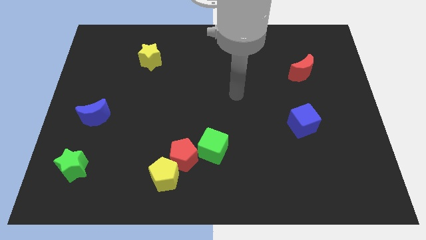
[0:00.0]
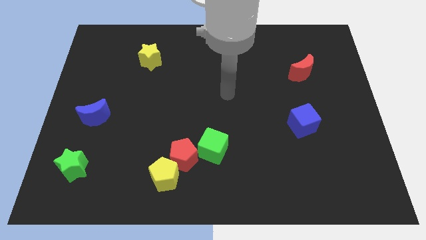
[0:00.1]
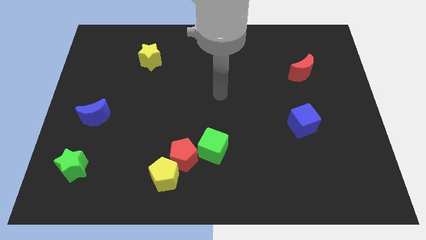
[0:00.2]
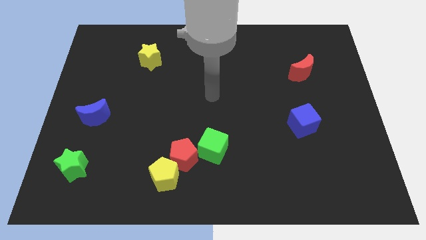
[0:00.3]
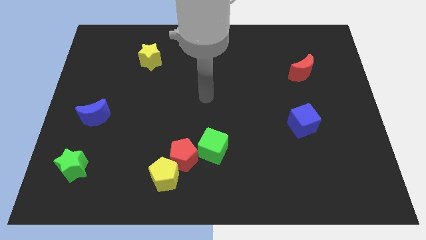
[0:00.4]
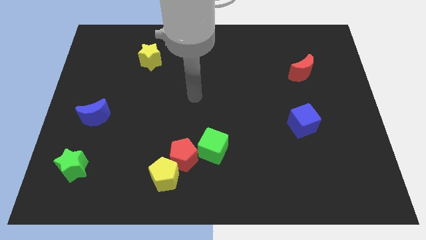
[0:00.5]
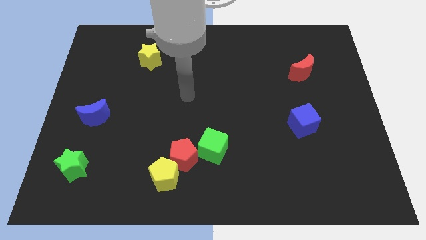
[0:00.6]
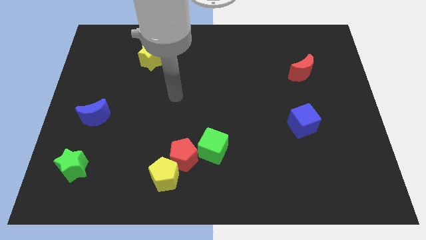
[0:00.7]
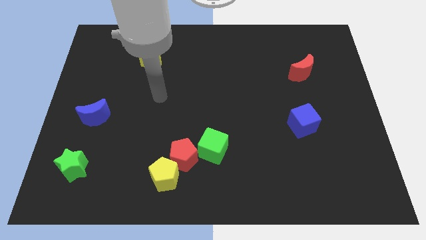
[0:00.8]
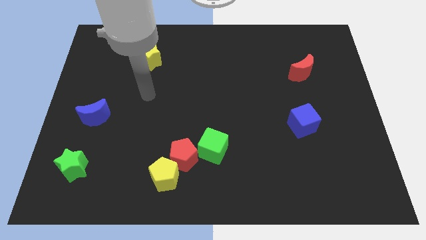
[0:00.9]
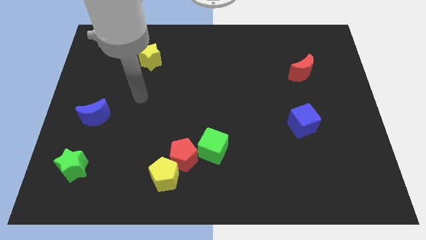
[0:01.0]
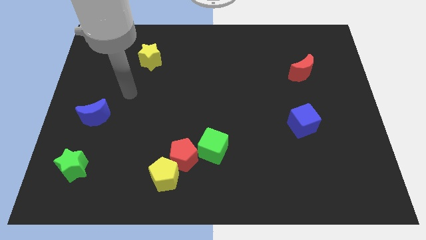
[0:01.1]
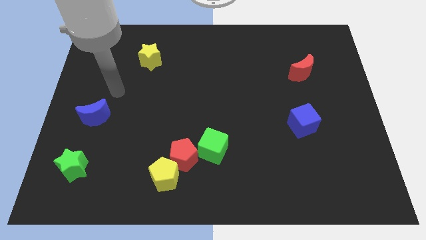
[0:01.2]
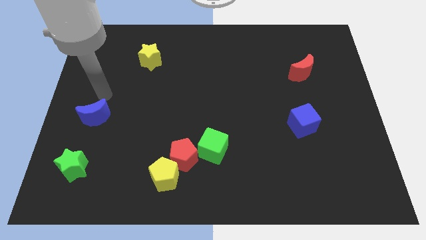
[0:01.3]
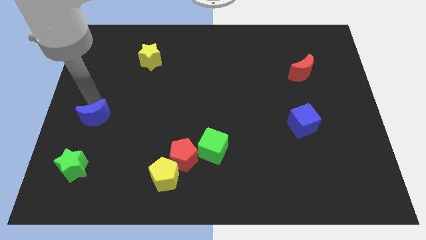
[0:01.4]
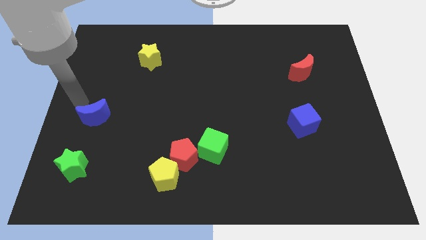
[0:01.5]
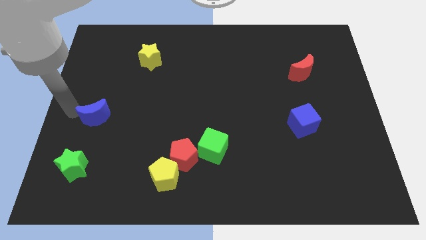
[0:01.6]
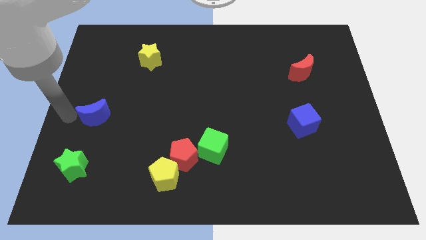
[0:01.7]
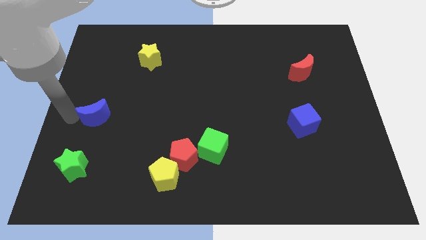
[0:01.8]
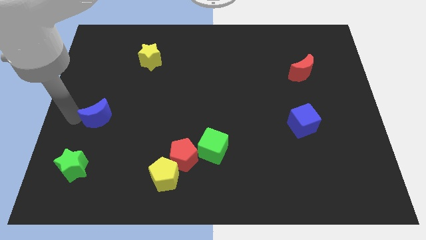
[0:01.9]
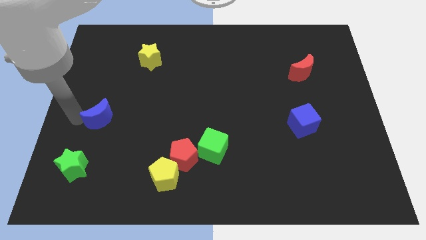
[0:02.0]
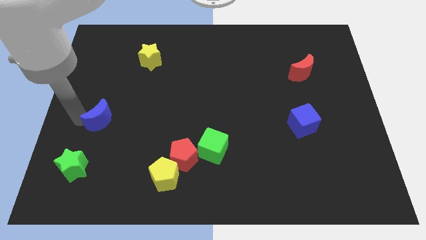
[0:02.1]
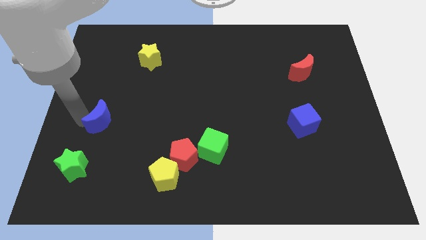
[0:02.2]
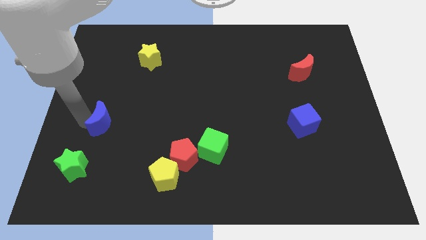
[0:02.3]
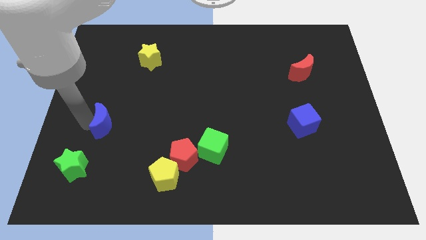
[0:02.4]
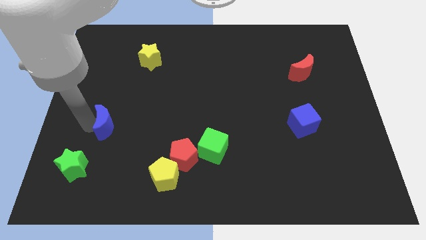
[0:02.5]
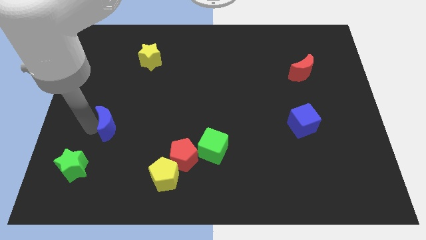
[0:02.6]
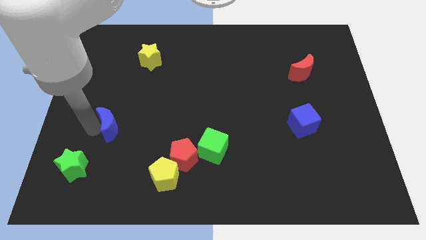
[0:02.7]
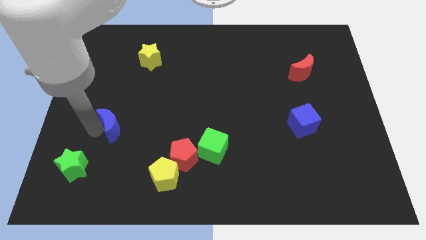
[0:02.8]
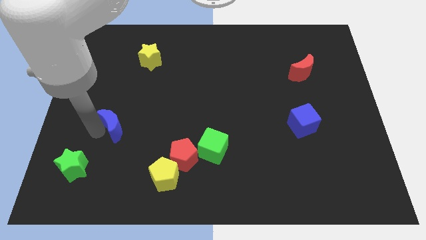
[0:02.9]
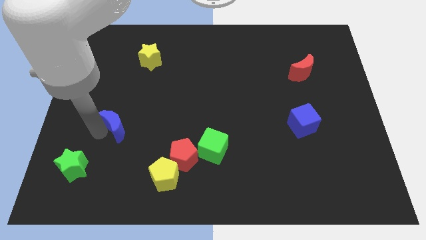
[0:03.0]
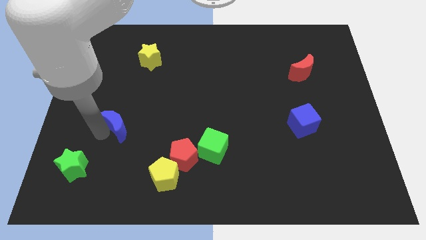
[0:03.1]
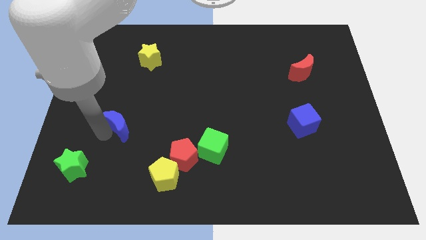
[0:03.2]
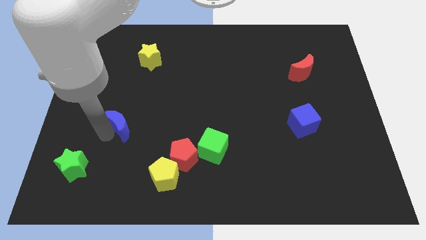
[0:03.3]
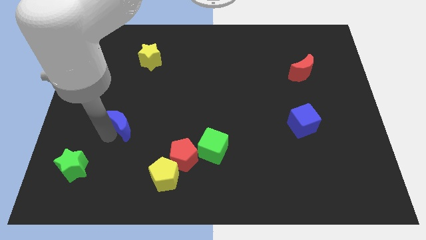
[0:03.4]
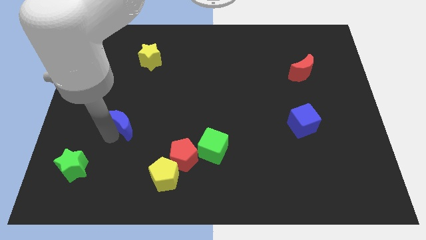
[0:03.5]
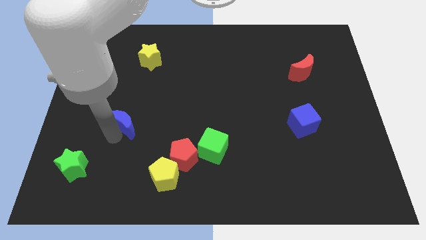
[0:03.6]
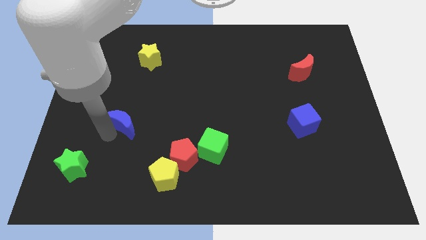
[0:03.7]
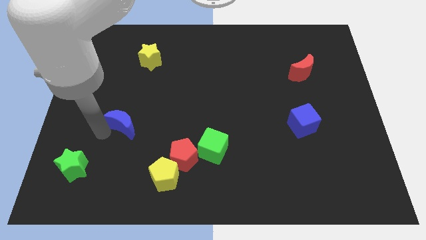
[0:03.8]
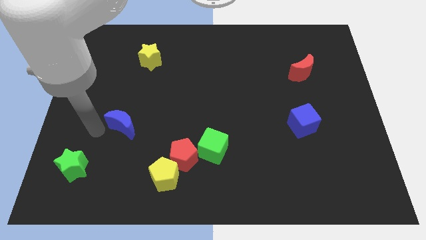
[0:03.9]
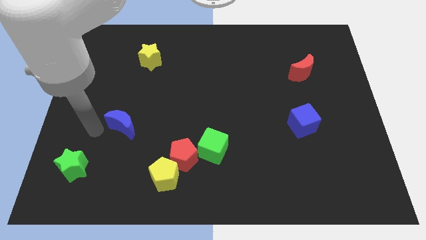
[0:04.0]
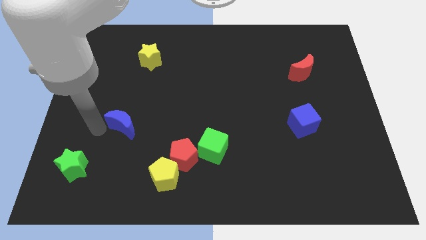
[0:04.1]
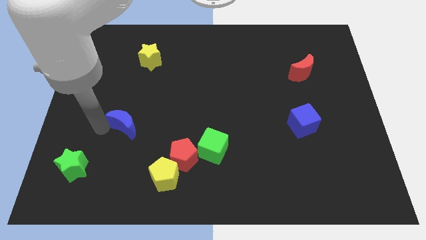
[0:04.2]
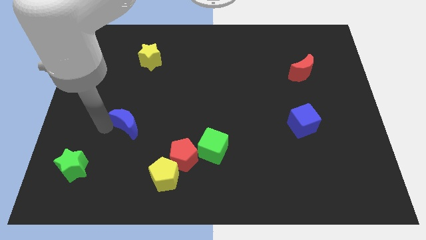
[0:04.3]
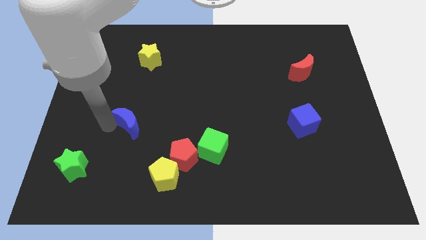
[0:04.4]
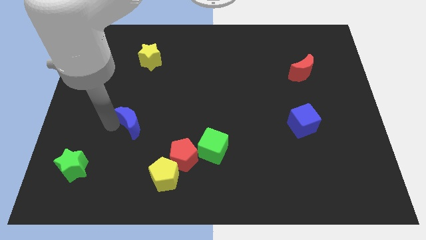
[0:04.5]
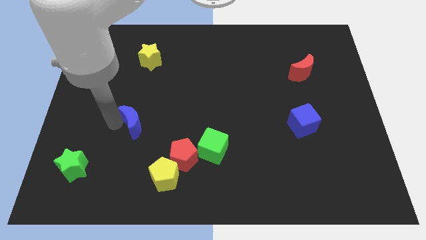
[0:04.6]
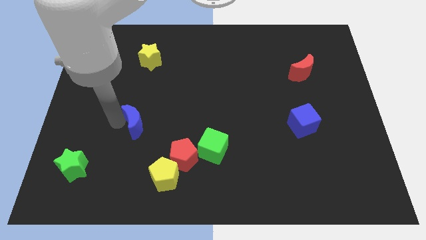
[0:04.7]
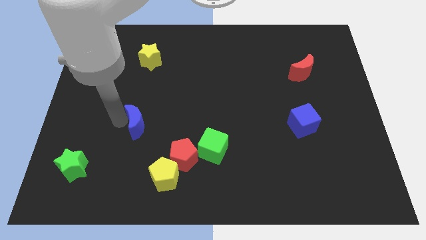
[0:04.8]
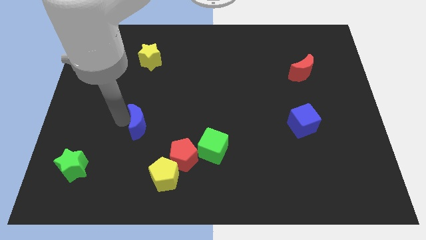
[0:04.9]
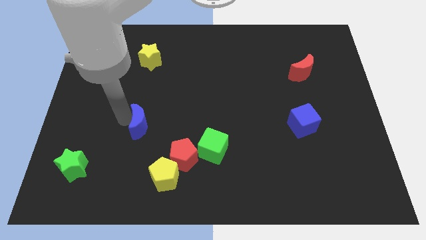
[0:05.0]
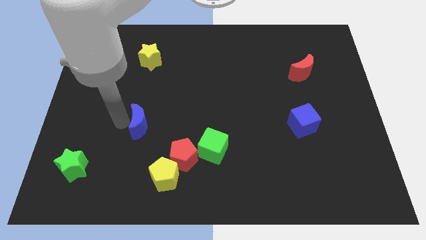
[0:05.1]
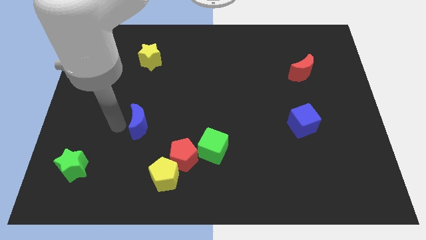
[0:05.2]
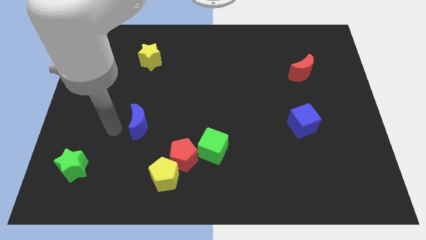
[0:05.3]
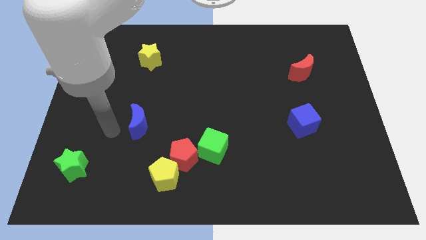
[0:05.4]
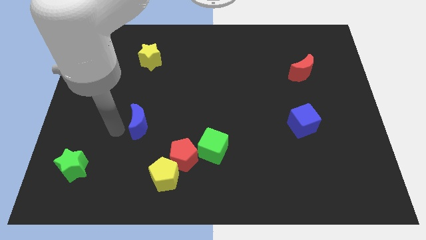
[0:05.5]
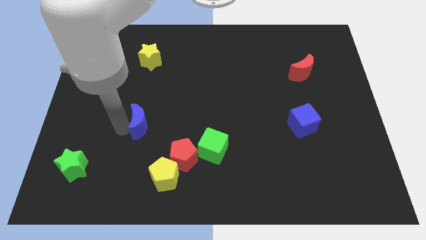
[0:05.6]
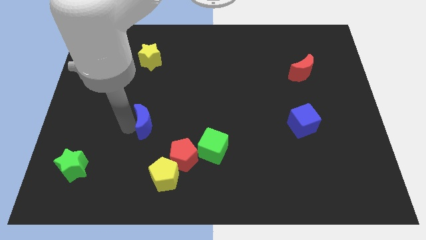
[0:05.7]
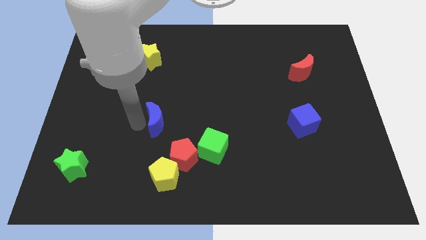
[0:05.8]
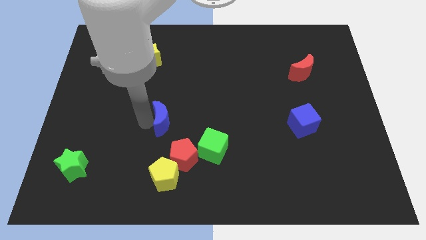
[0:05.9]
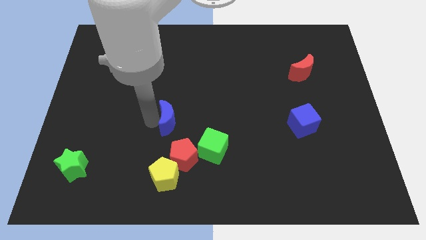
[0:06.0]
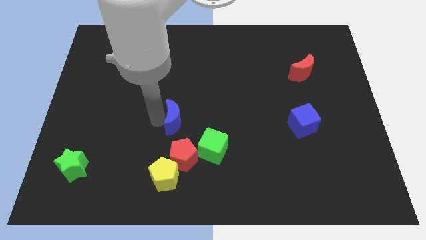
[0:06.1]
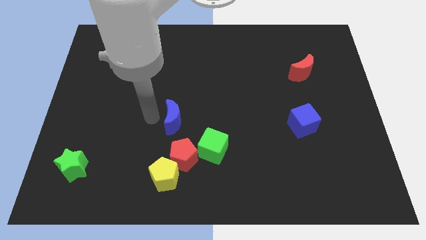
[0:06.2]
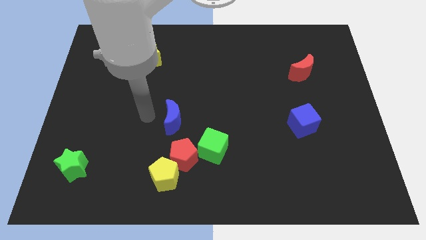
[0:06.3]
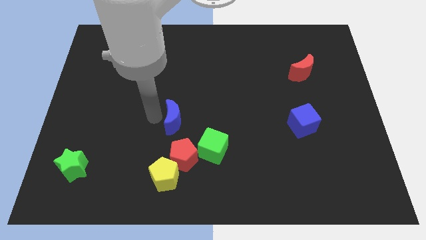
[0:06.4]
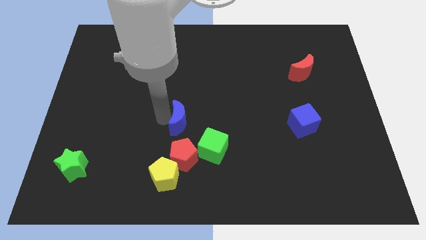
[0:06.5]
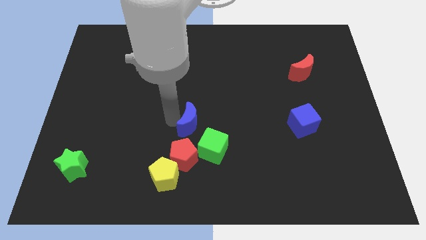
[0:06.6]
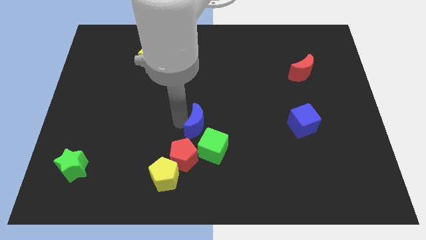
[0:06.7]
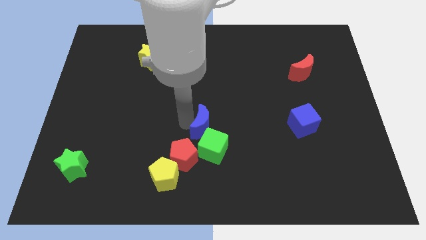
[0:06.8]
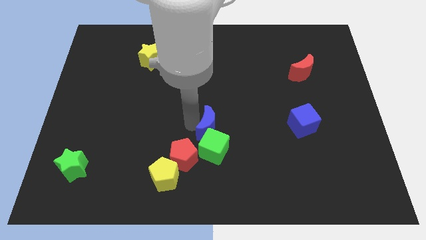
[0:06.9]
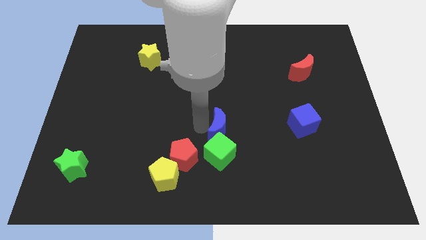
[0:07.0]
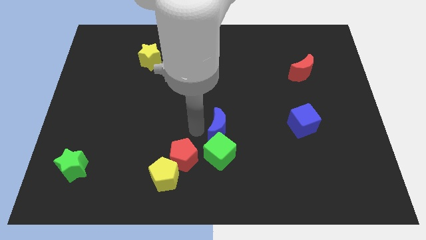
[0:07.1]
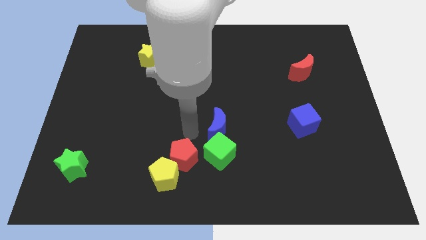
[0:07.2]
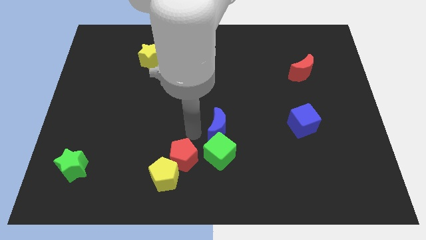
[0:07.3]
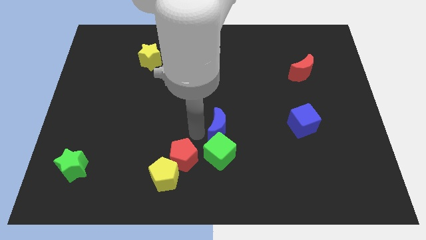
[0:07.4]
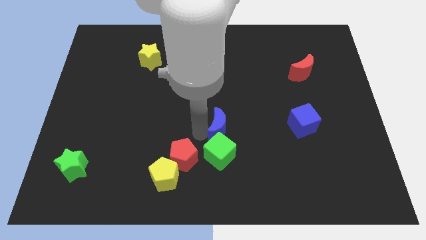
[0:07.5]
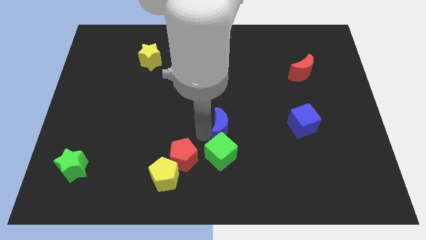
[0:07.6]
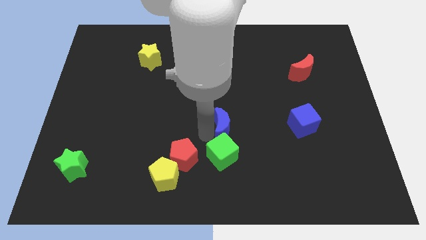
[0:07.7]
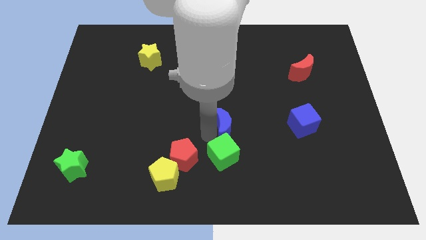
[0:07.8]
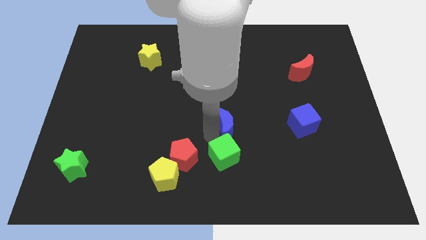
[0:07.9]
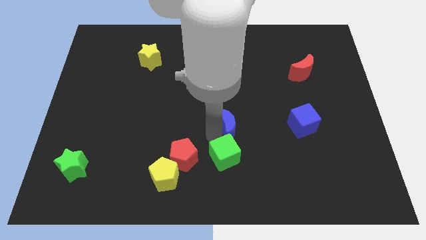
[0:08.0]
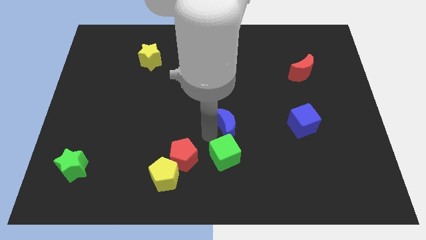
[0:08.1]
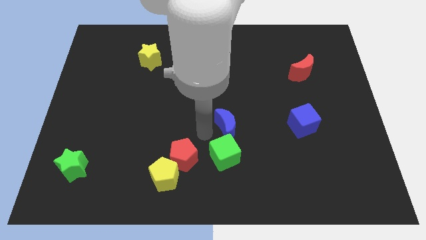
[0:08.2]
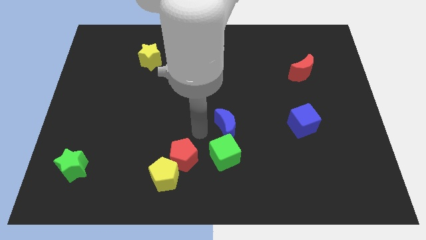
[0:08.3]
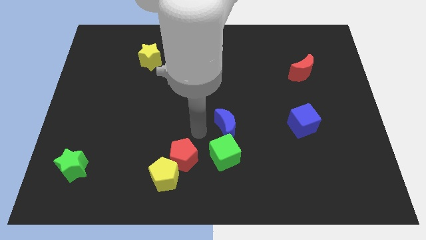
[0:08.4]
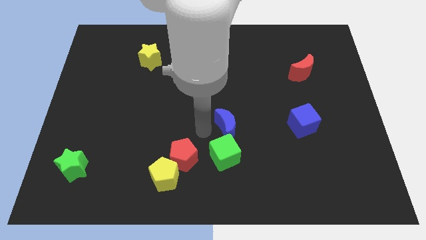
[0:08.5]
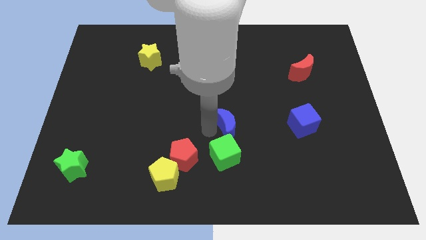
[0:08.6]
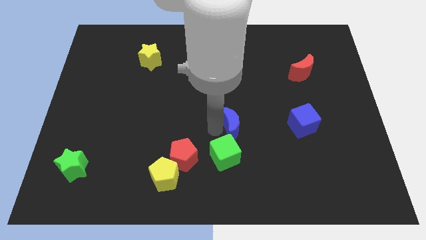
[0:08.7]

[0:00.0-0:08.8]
move the blue moon to the left of the blue cube
